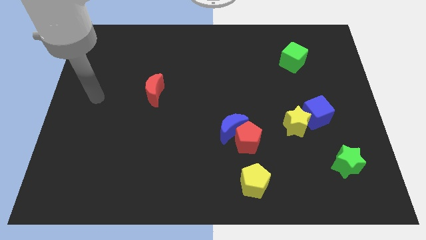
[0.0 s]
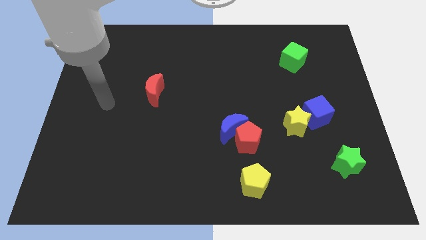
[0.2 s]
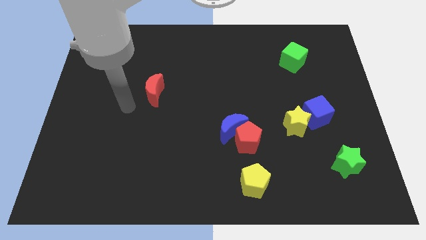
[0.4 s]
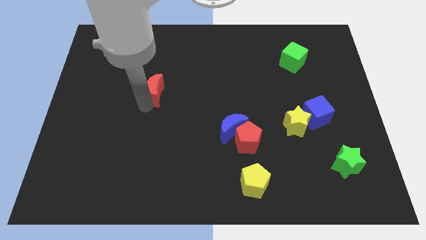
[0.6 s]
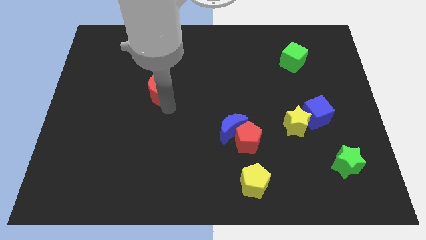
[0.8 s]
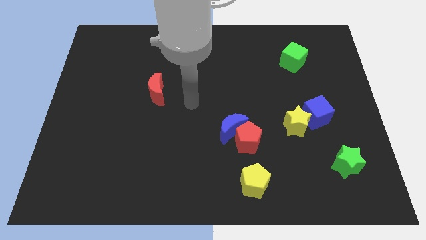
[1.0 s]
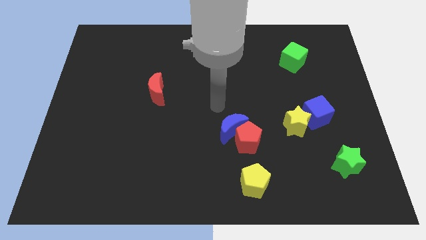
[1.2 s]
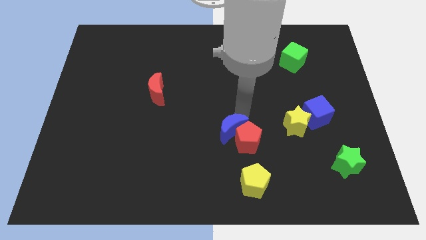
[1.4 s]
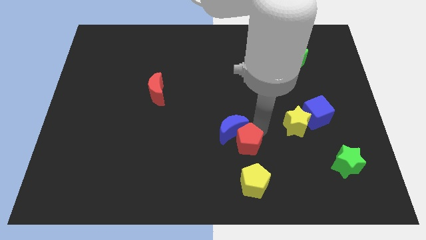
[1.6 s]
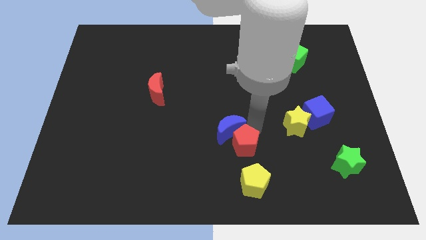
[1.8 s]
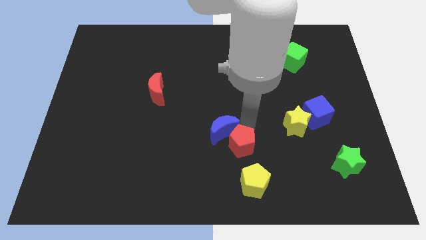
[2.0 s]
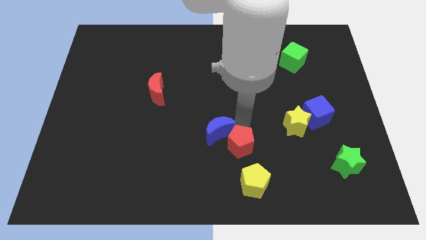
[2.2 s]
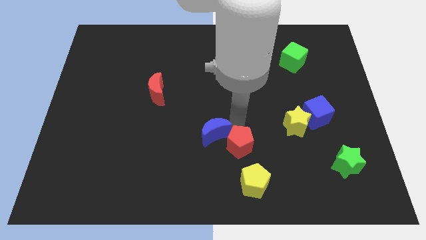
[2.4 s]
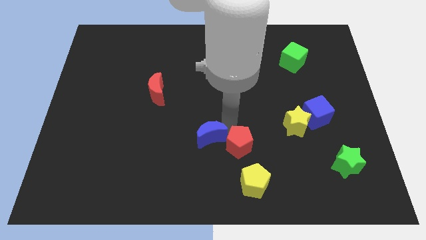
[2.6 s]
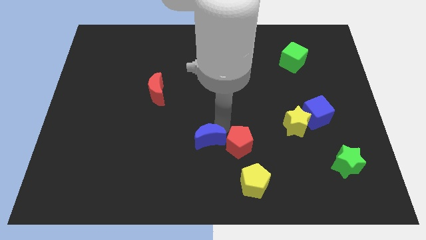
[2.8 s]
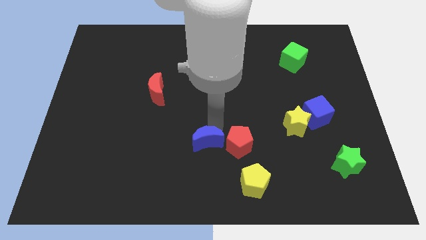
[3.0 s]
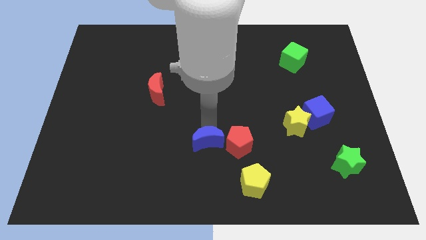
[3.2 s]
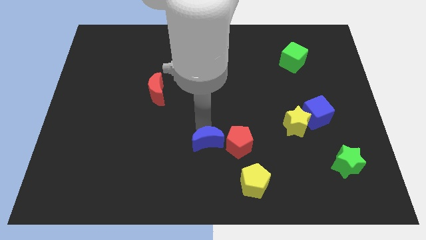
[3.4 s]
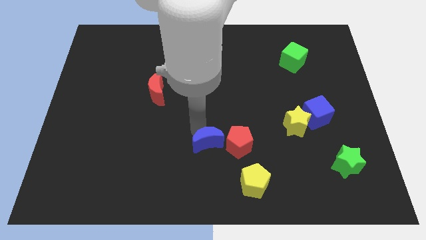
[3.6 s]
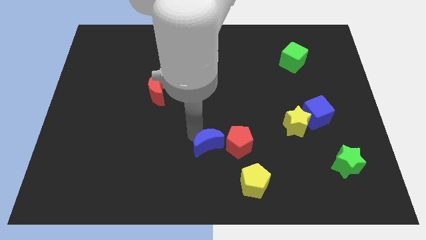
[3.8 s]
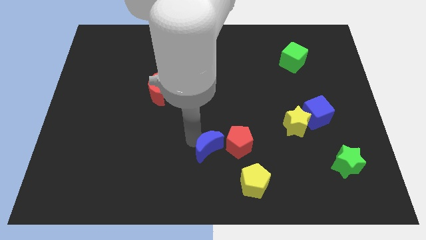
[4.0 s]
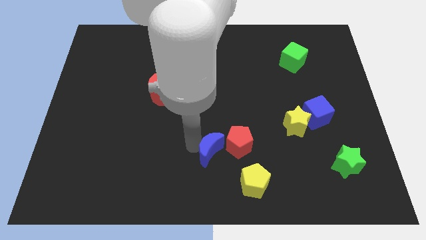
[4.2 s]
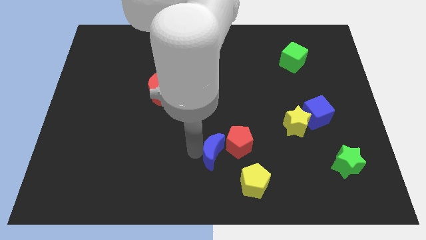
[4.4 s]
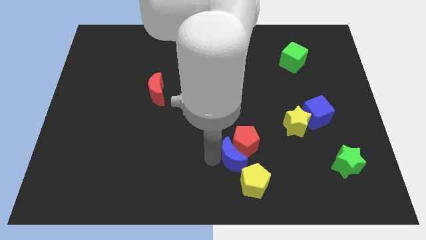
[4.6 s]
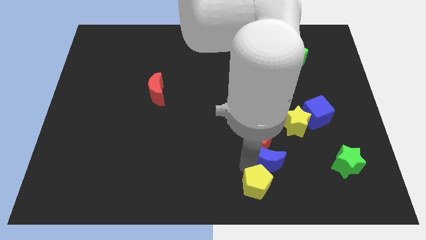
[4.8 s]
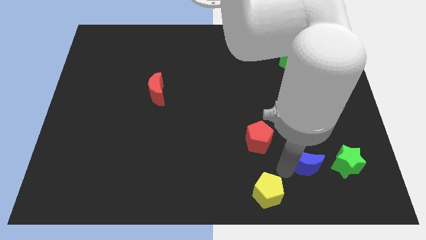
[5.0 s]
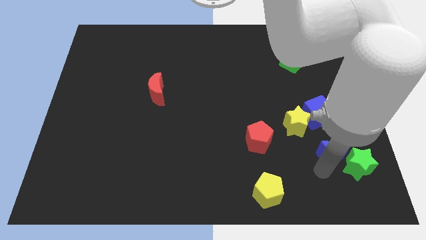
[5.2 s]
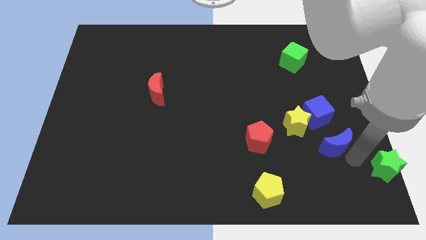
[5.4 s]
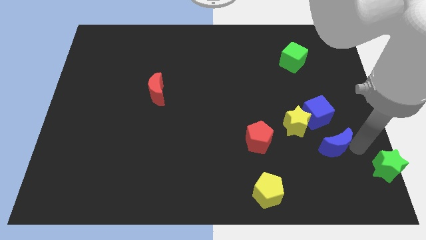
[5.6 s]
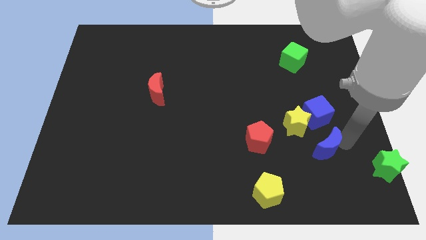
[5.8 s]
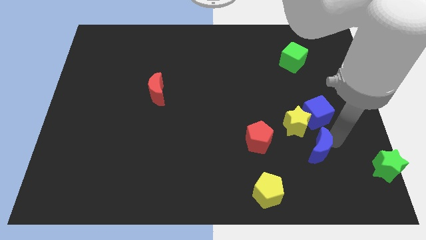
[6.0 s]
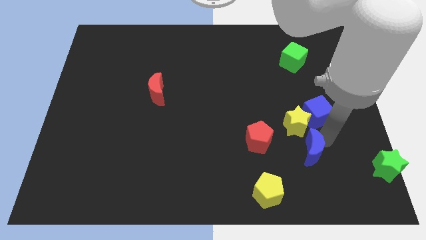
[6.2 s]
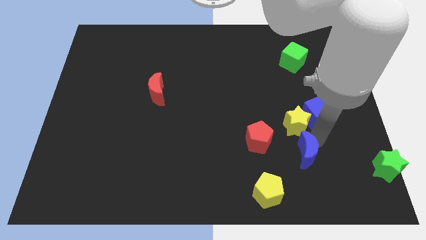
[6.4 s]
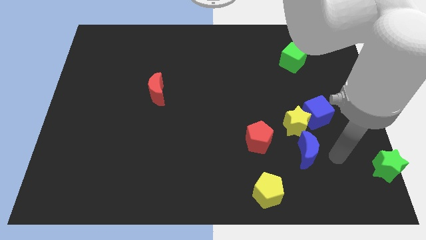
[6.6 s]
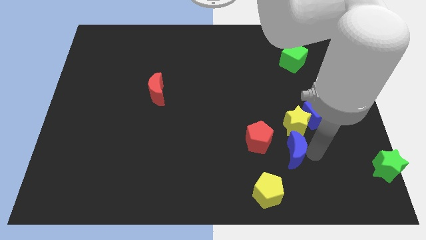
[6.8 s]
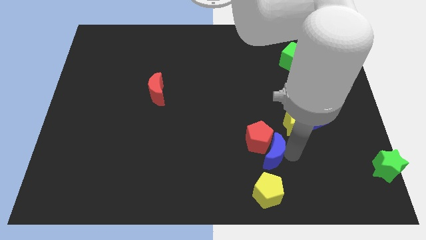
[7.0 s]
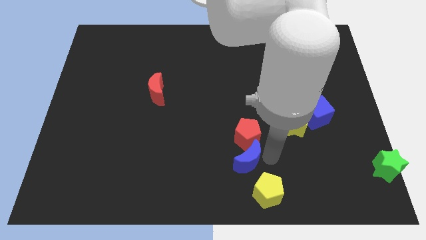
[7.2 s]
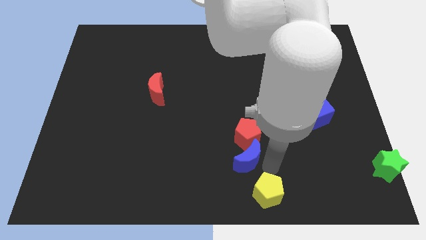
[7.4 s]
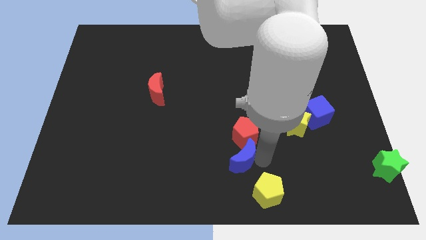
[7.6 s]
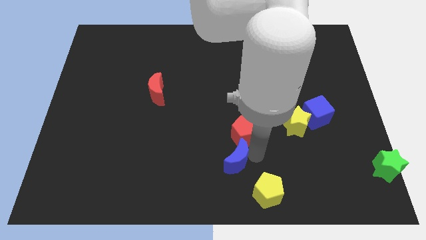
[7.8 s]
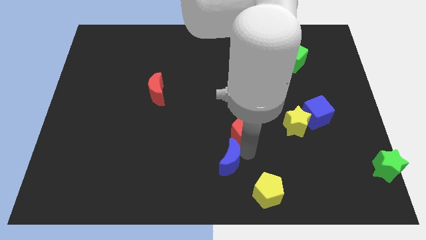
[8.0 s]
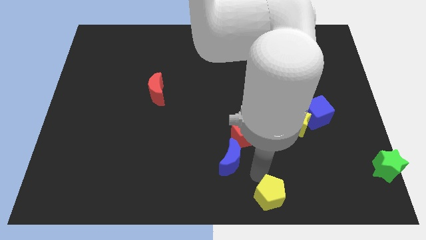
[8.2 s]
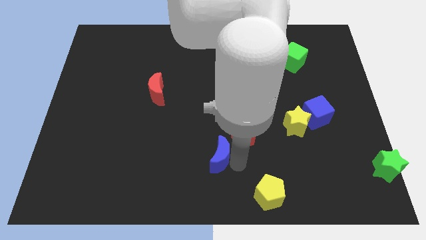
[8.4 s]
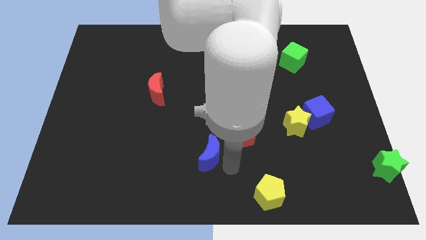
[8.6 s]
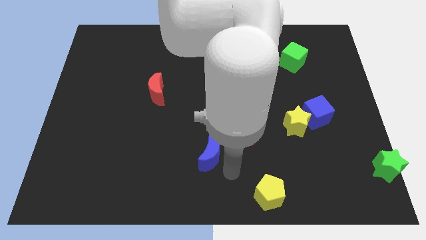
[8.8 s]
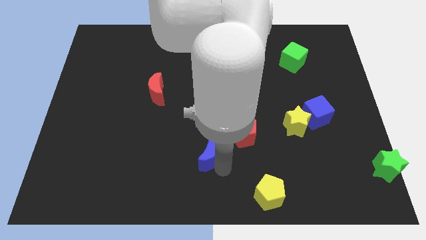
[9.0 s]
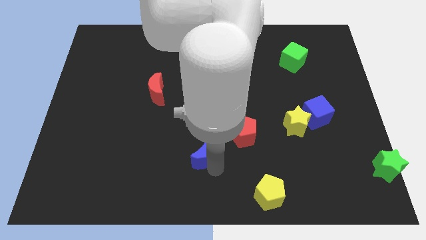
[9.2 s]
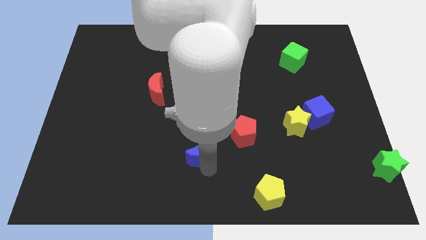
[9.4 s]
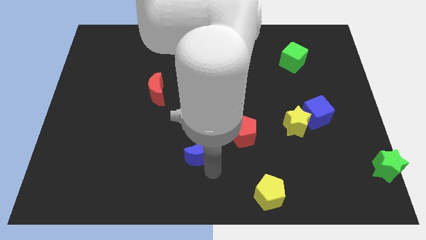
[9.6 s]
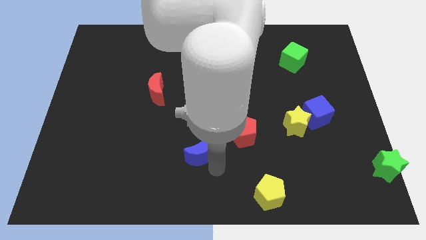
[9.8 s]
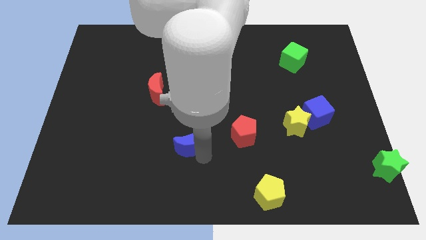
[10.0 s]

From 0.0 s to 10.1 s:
push the blue moon left slightly

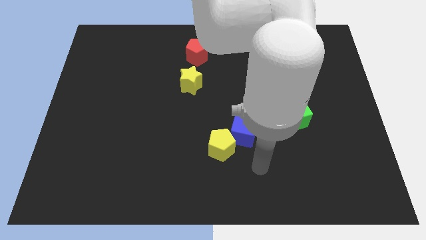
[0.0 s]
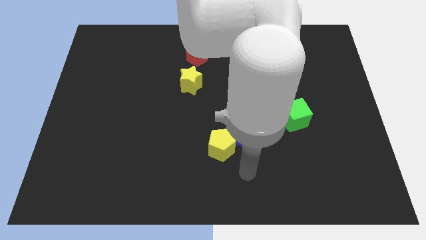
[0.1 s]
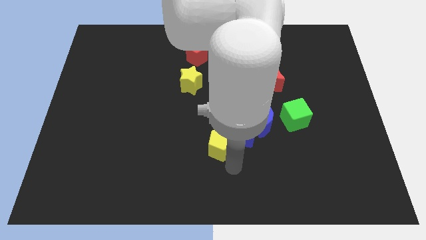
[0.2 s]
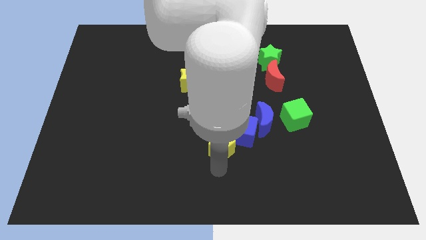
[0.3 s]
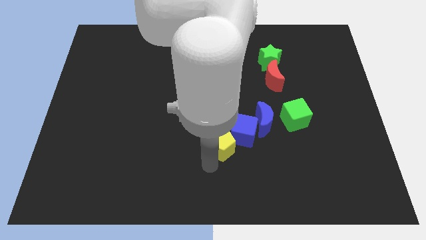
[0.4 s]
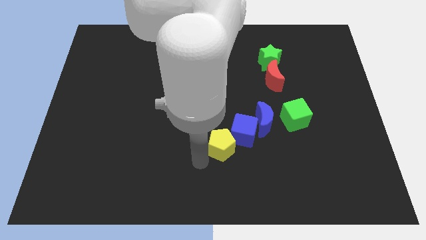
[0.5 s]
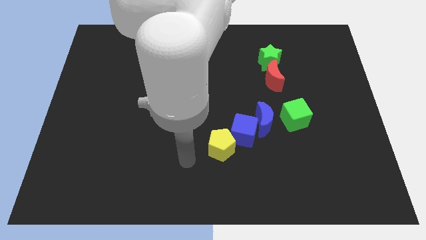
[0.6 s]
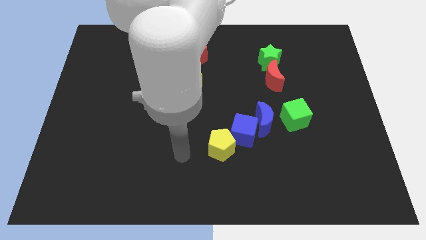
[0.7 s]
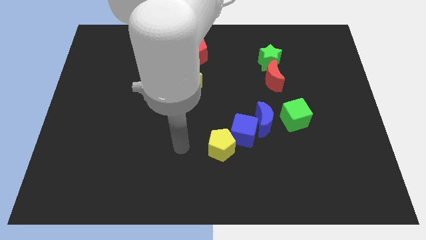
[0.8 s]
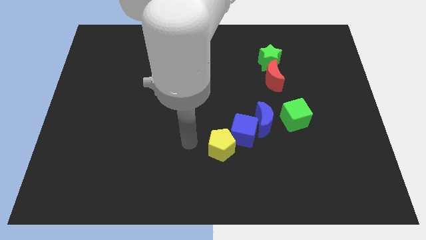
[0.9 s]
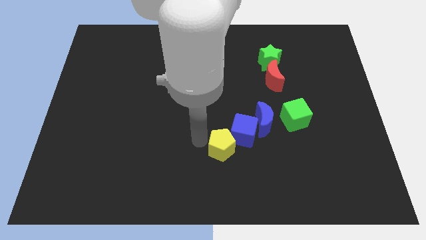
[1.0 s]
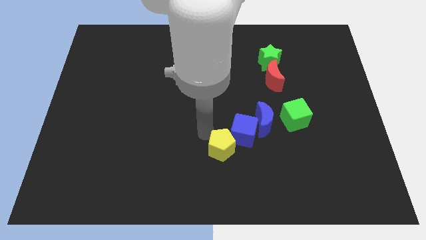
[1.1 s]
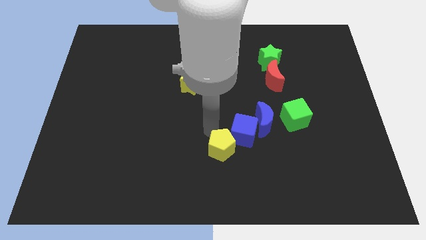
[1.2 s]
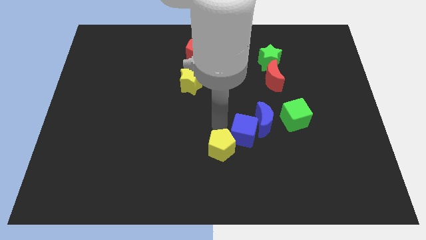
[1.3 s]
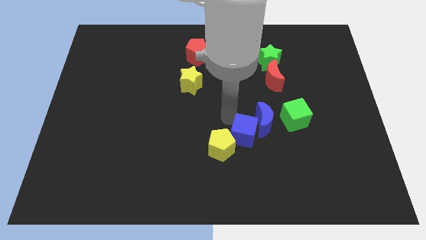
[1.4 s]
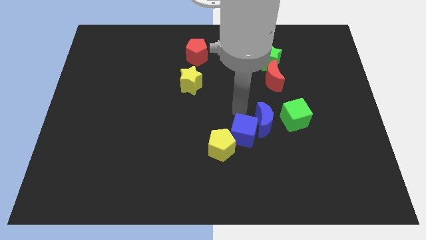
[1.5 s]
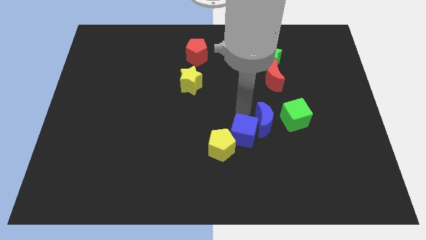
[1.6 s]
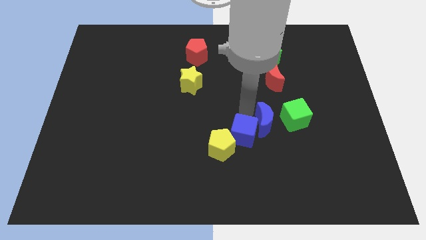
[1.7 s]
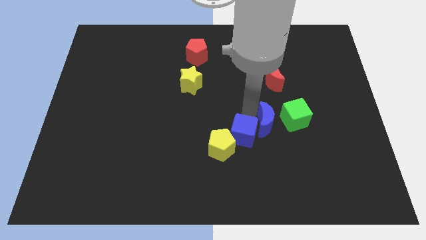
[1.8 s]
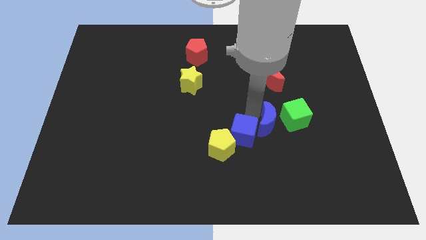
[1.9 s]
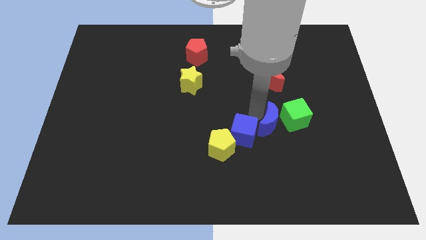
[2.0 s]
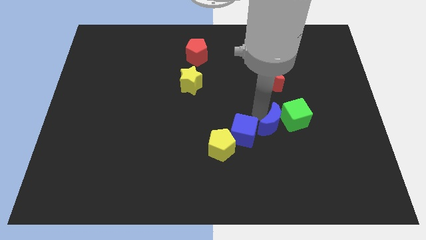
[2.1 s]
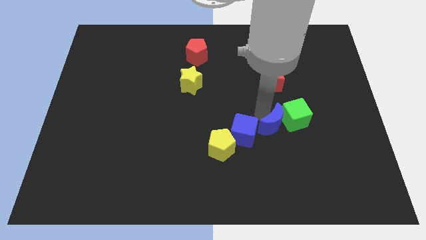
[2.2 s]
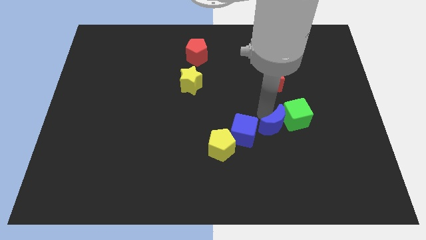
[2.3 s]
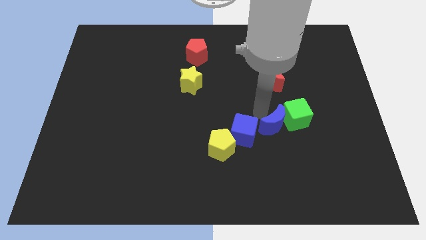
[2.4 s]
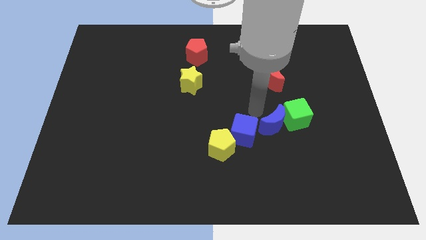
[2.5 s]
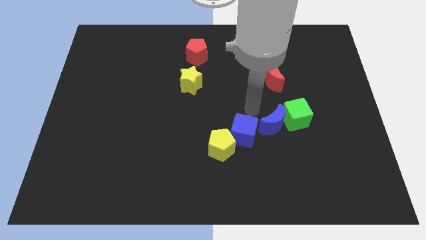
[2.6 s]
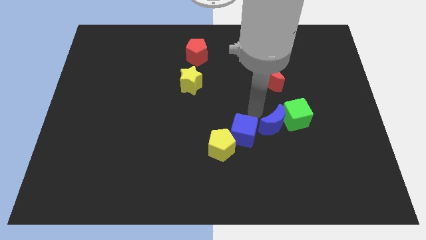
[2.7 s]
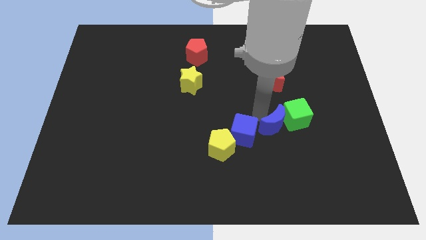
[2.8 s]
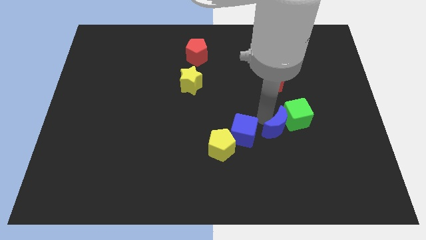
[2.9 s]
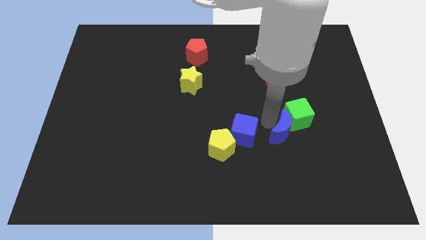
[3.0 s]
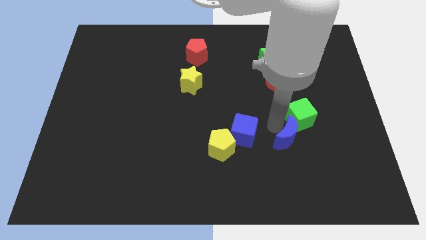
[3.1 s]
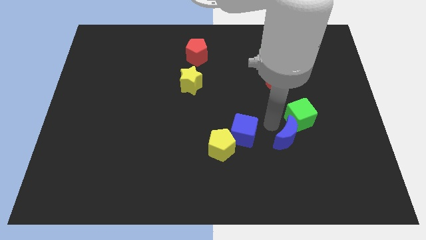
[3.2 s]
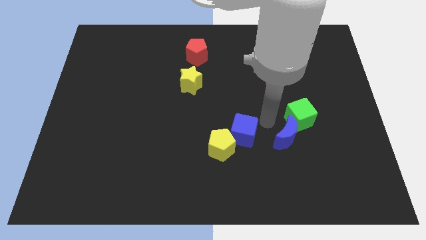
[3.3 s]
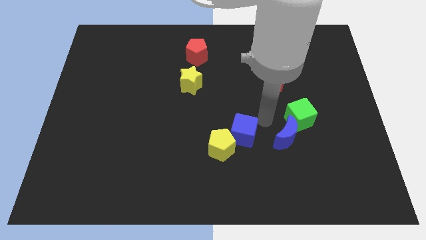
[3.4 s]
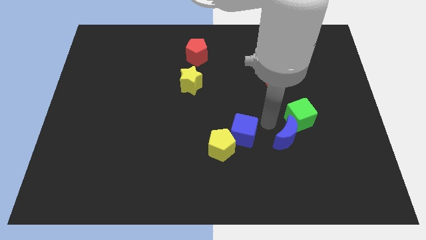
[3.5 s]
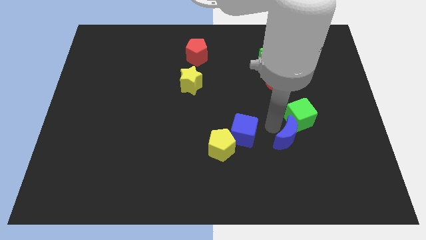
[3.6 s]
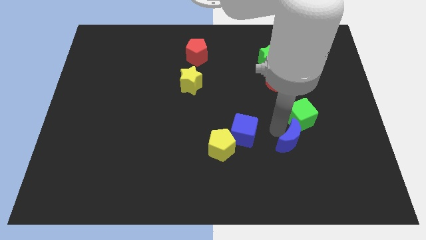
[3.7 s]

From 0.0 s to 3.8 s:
slide the blue moon slightly downwards and to the right diagonally
